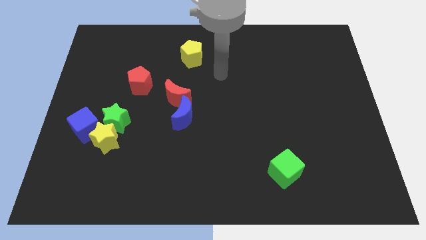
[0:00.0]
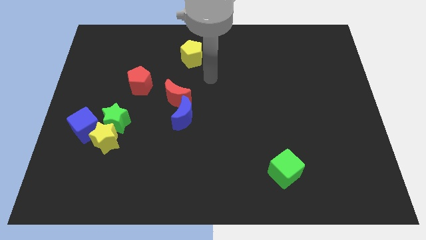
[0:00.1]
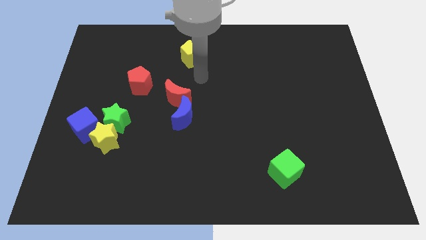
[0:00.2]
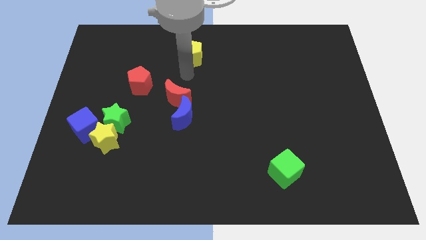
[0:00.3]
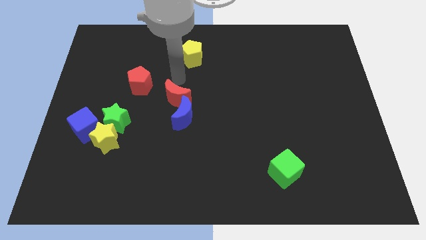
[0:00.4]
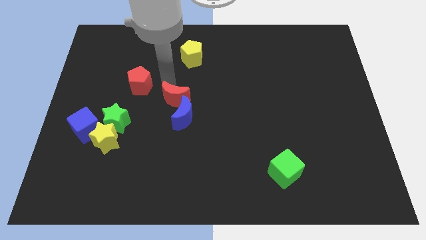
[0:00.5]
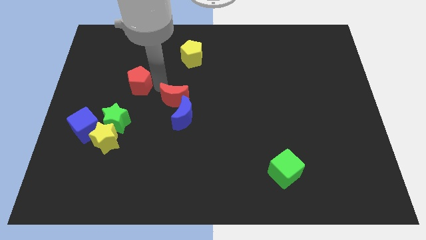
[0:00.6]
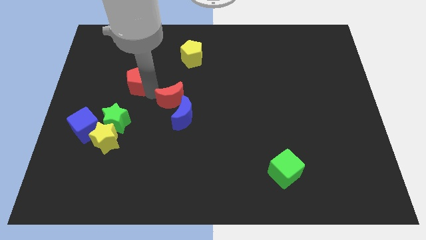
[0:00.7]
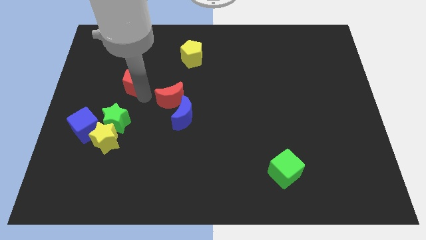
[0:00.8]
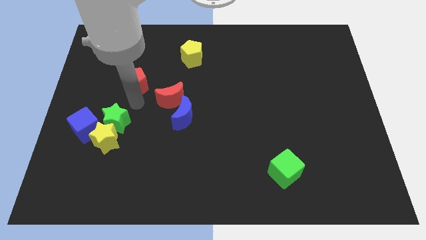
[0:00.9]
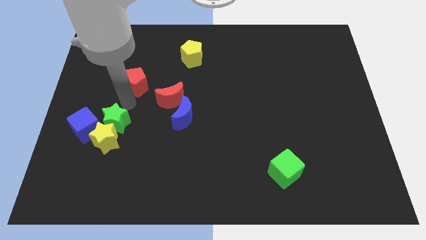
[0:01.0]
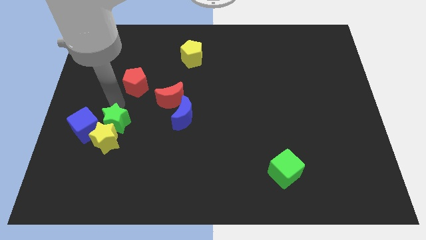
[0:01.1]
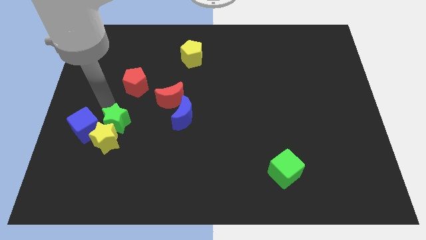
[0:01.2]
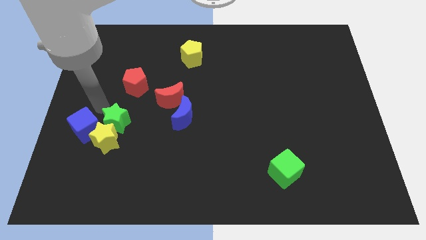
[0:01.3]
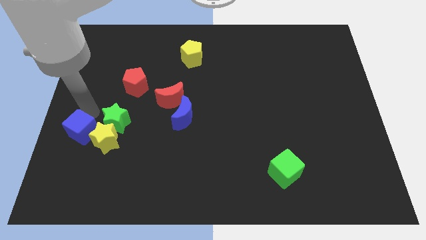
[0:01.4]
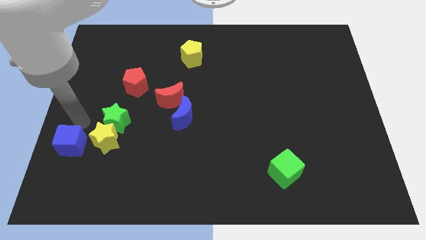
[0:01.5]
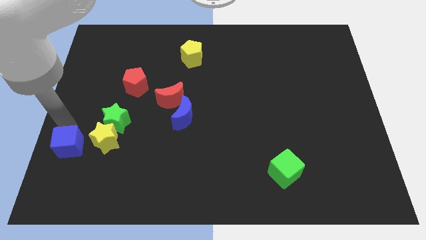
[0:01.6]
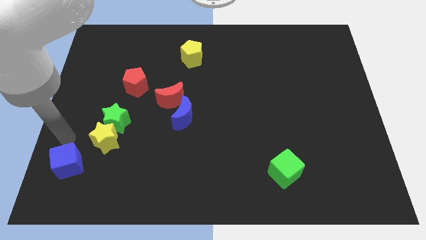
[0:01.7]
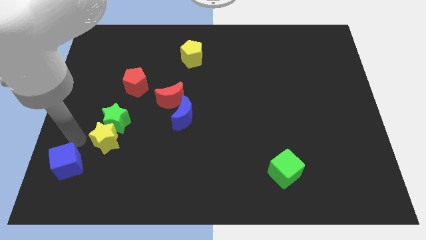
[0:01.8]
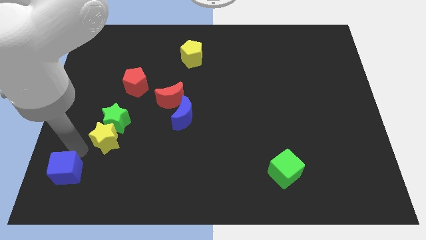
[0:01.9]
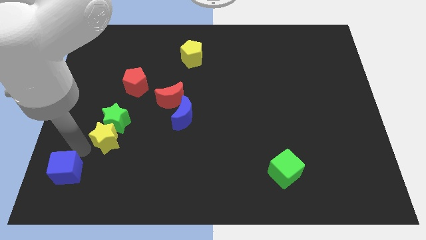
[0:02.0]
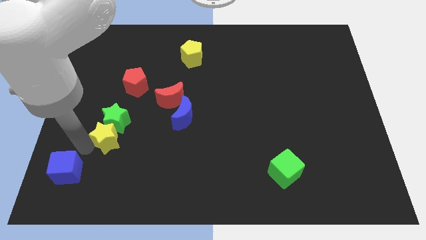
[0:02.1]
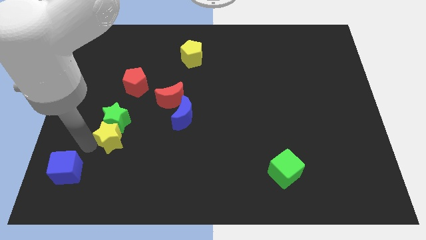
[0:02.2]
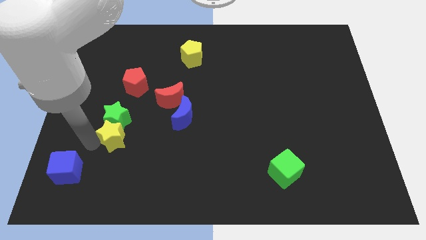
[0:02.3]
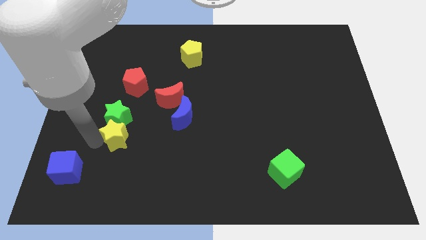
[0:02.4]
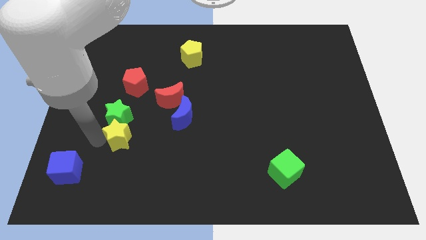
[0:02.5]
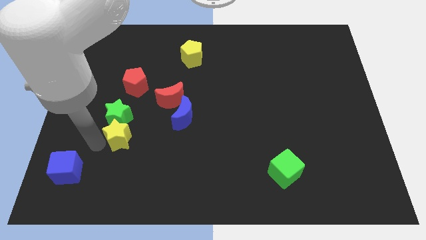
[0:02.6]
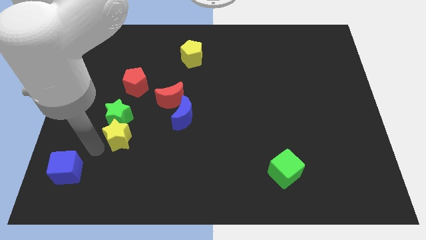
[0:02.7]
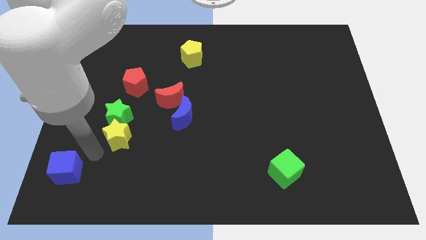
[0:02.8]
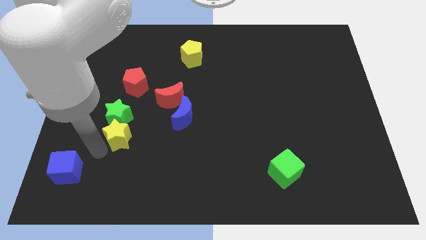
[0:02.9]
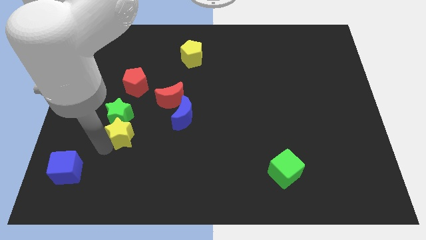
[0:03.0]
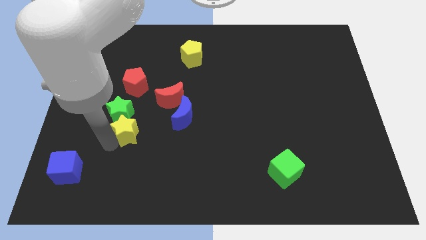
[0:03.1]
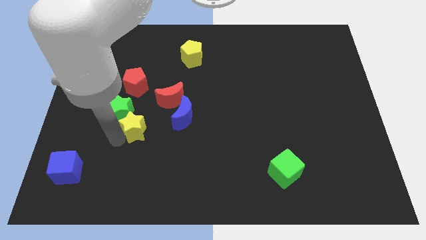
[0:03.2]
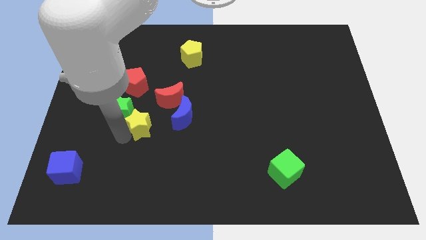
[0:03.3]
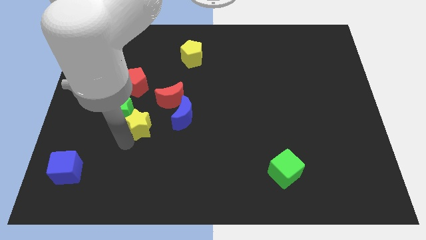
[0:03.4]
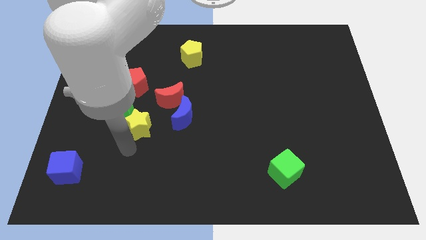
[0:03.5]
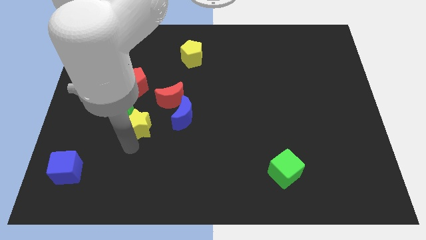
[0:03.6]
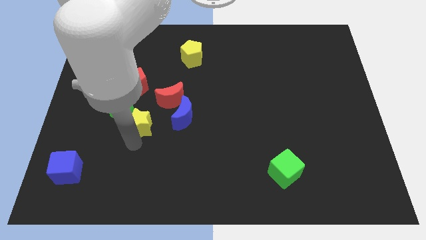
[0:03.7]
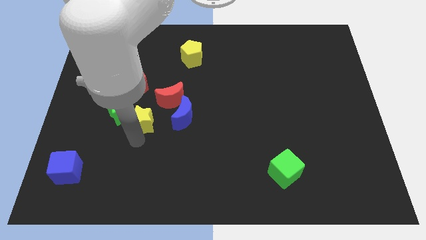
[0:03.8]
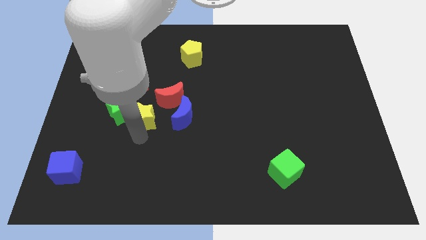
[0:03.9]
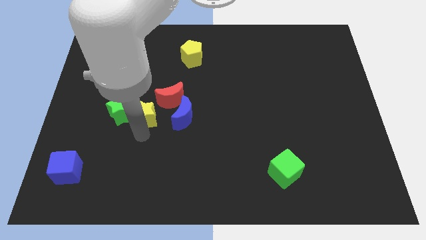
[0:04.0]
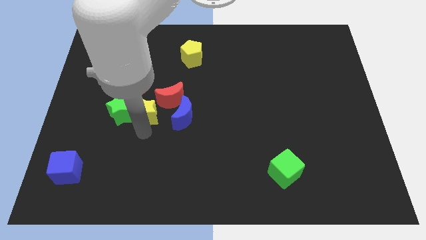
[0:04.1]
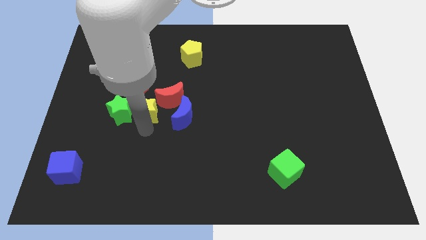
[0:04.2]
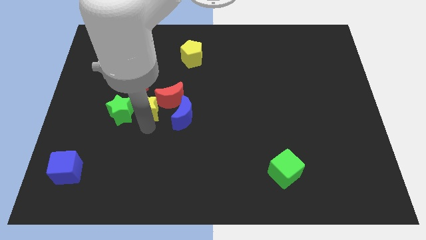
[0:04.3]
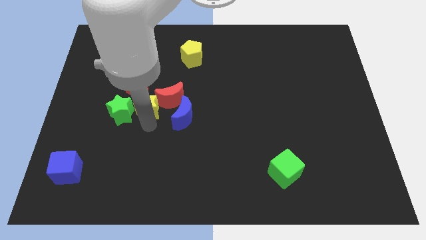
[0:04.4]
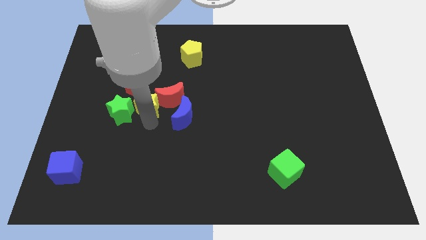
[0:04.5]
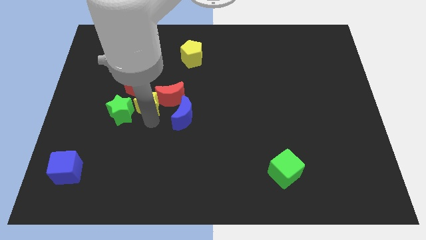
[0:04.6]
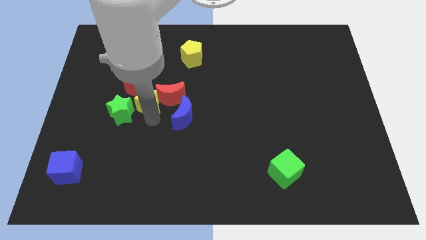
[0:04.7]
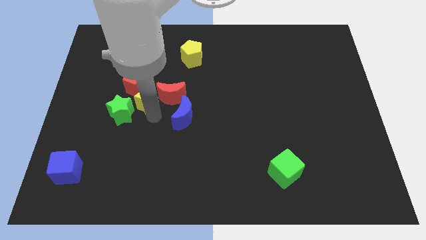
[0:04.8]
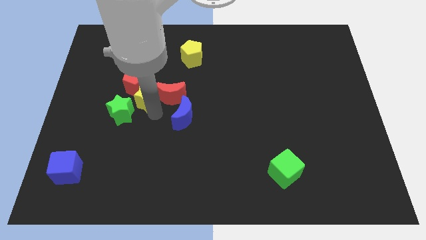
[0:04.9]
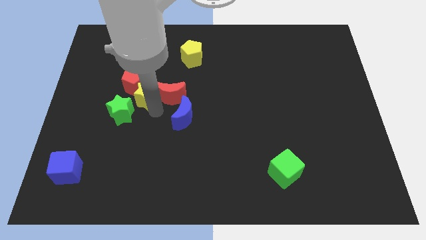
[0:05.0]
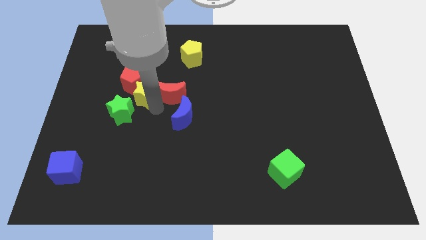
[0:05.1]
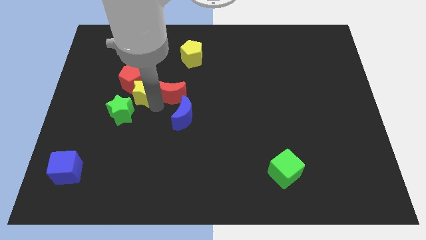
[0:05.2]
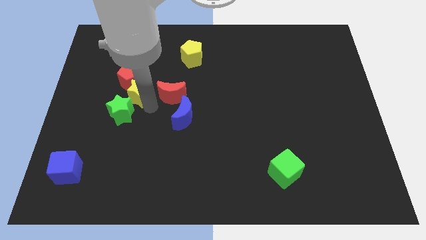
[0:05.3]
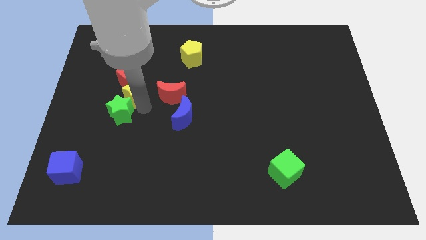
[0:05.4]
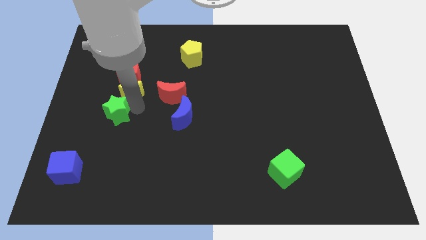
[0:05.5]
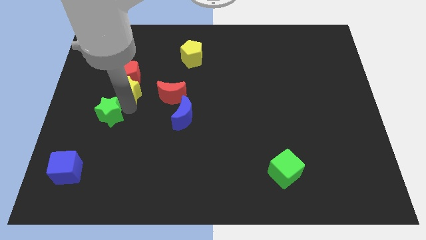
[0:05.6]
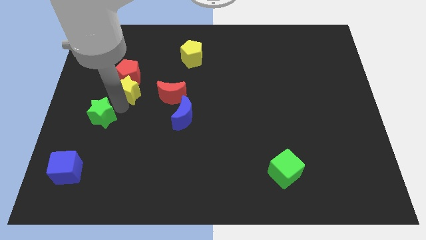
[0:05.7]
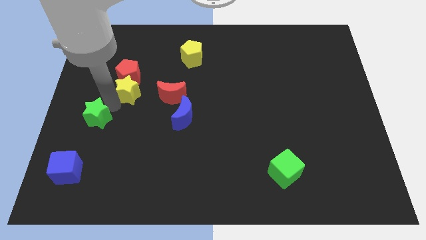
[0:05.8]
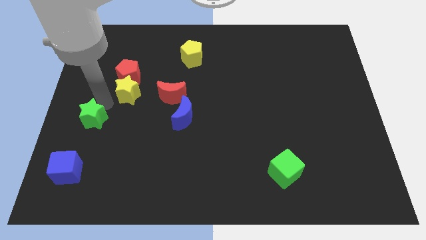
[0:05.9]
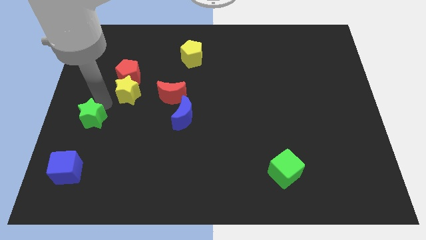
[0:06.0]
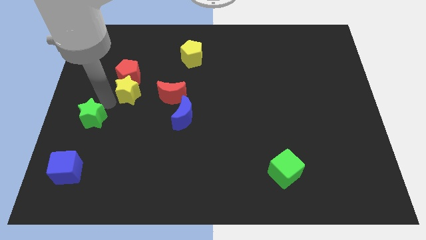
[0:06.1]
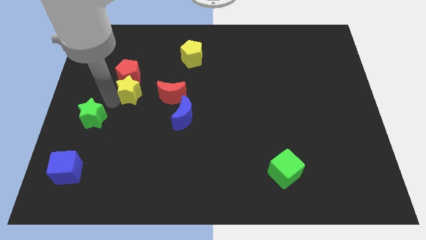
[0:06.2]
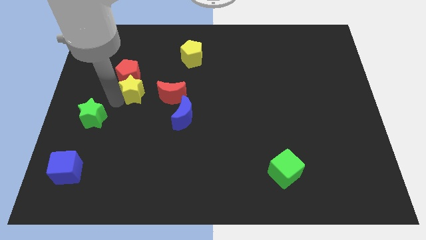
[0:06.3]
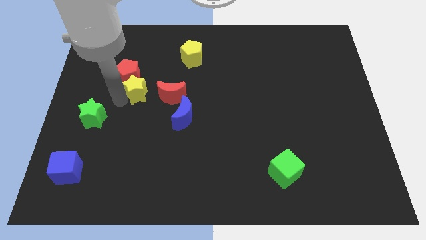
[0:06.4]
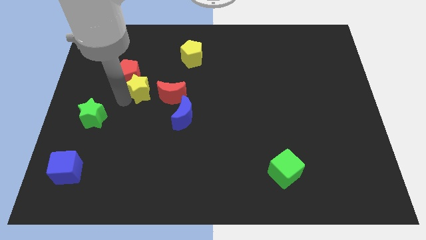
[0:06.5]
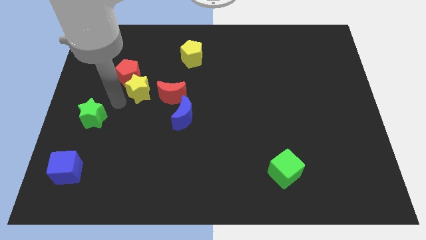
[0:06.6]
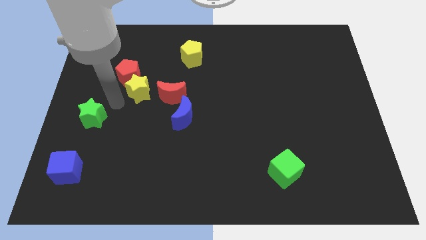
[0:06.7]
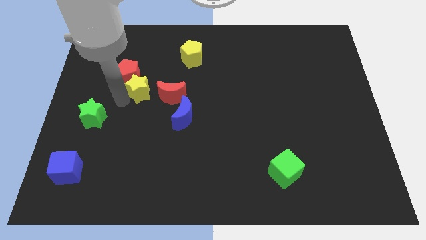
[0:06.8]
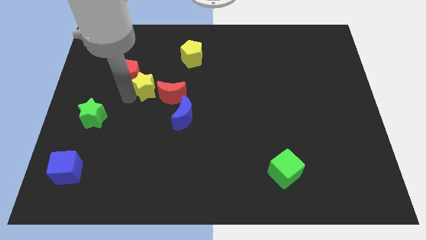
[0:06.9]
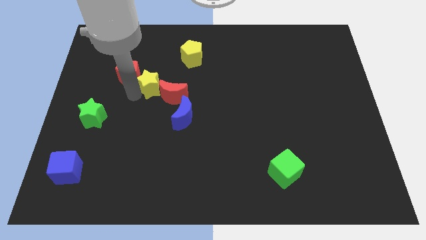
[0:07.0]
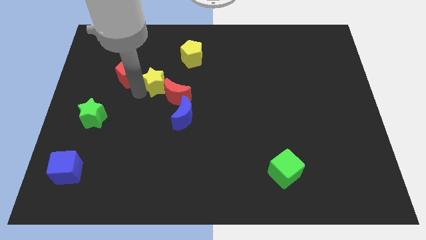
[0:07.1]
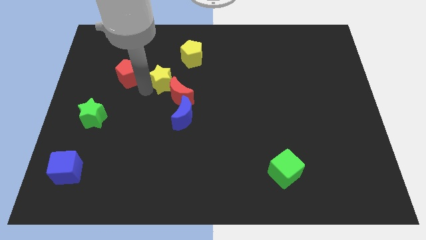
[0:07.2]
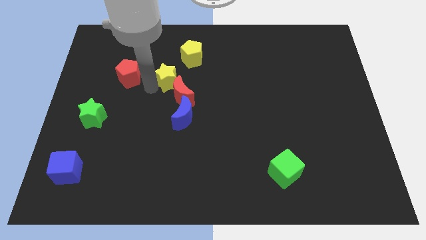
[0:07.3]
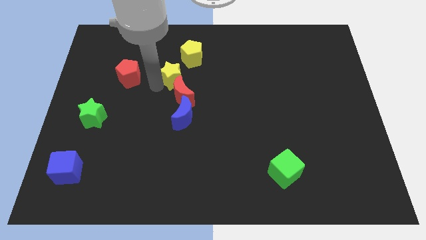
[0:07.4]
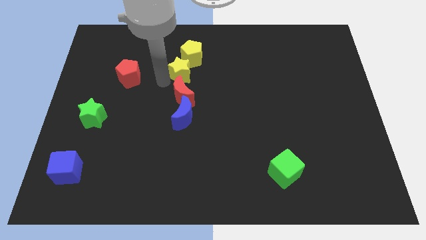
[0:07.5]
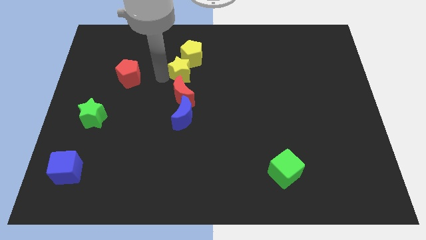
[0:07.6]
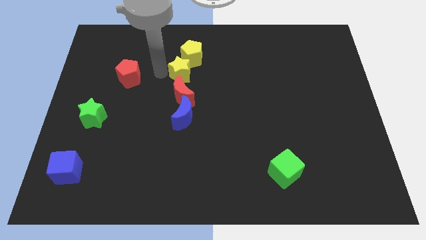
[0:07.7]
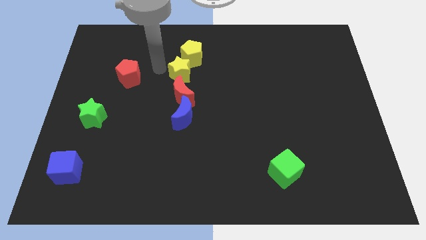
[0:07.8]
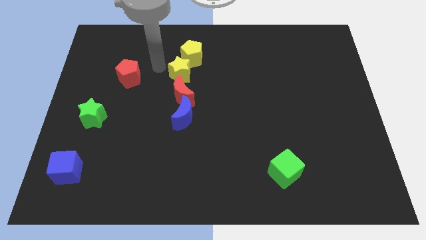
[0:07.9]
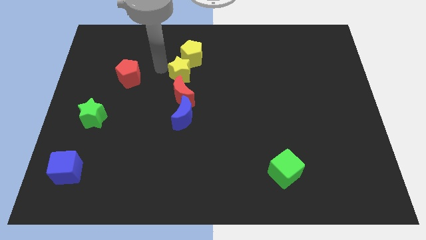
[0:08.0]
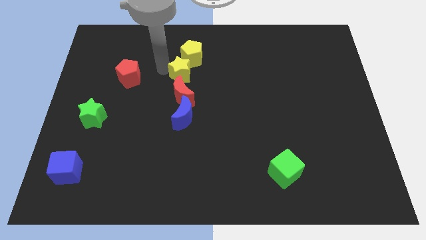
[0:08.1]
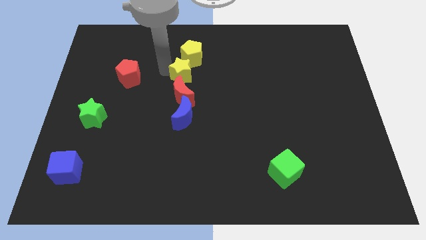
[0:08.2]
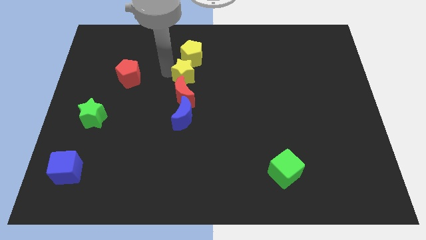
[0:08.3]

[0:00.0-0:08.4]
move the yellow star diagonally up and to the right of the red moon
